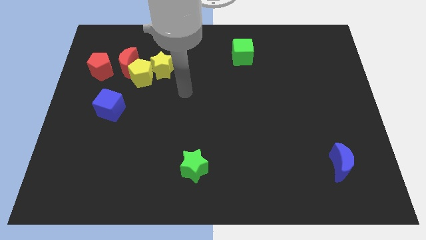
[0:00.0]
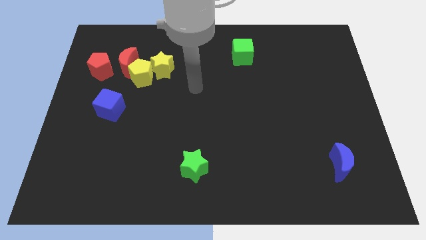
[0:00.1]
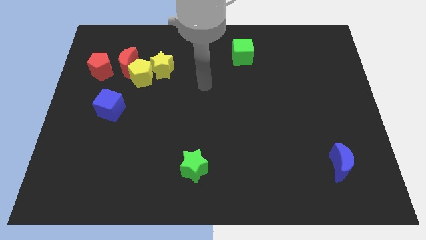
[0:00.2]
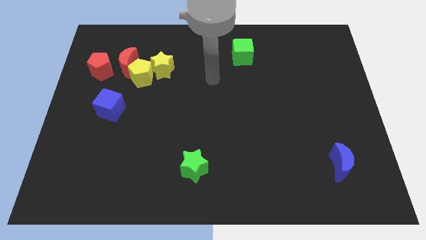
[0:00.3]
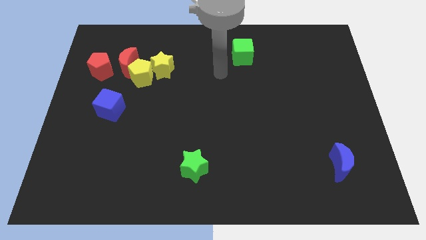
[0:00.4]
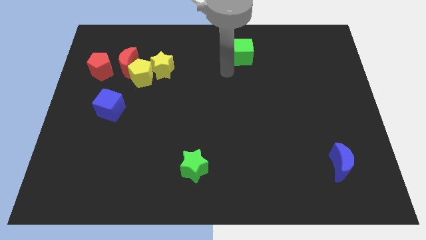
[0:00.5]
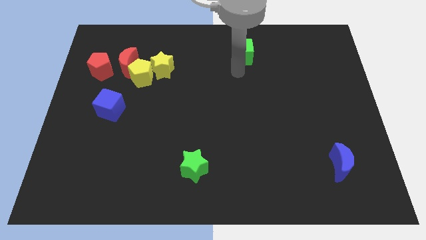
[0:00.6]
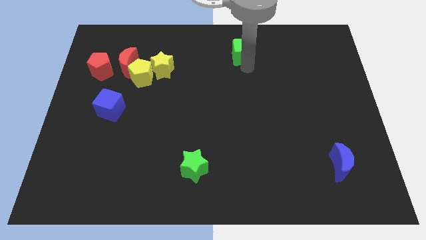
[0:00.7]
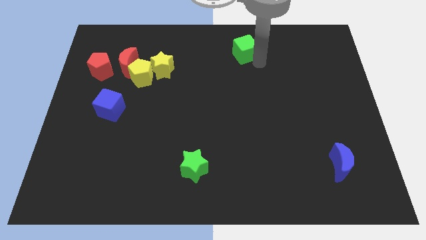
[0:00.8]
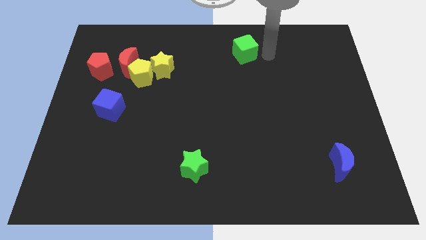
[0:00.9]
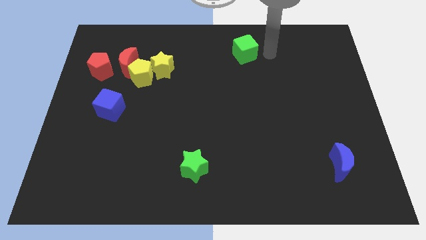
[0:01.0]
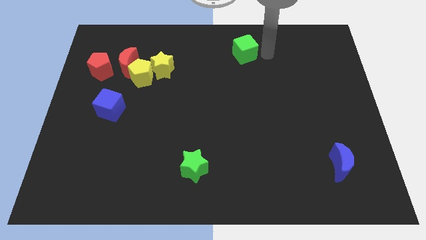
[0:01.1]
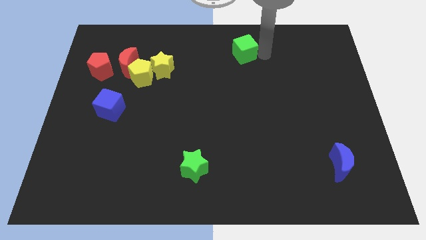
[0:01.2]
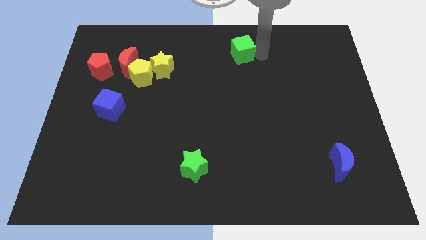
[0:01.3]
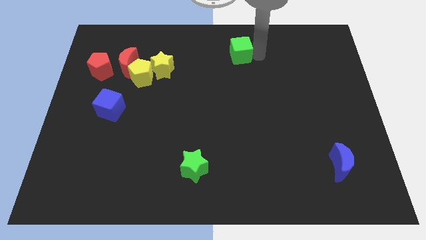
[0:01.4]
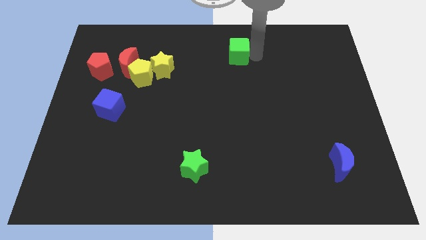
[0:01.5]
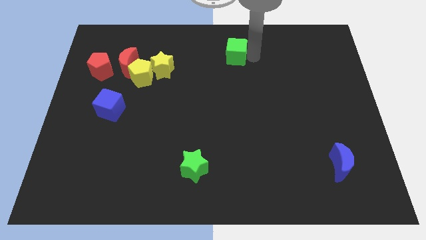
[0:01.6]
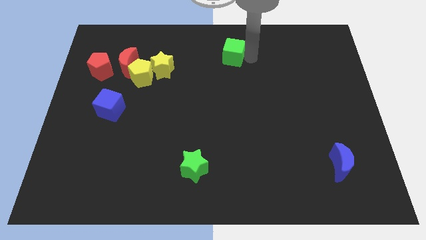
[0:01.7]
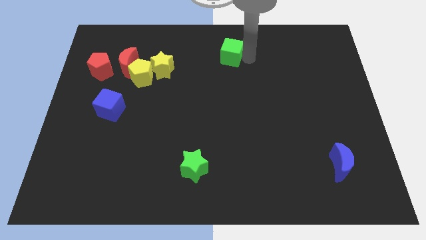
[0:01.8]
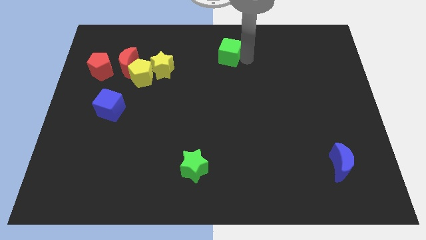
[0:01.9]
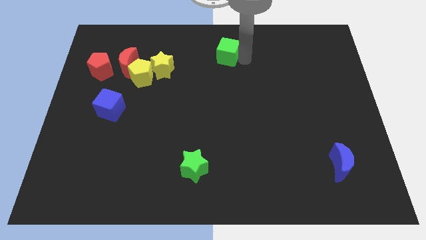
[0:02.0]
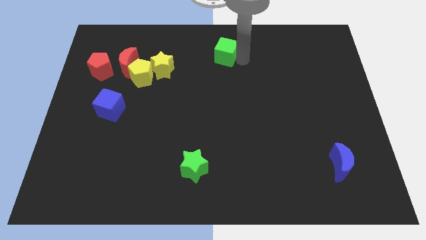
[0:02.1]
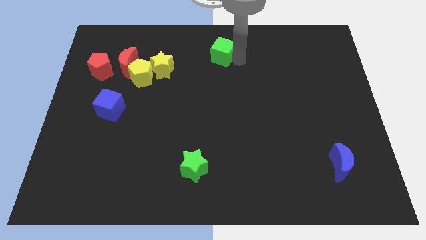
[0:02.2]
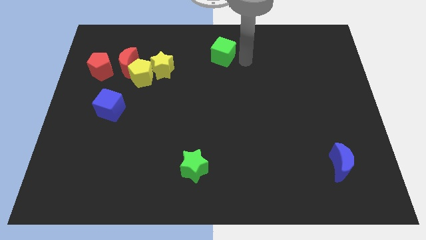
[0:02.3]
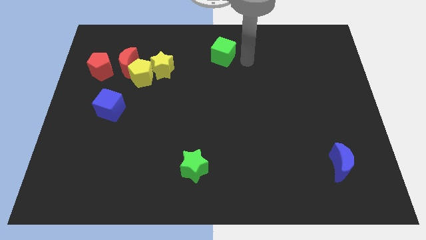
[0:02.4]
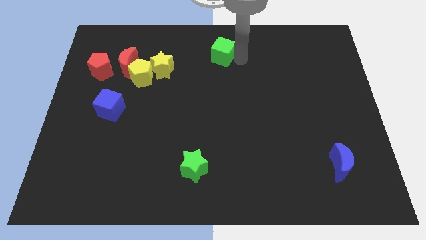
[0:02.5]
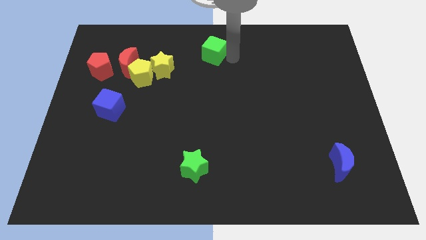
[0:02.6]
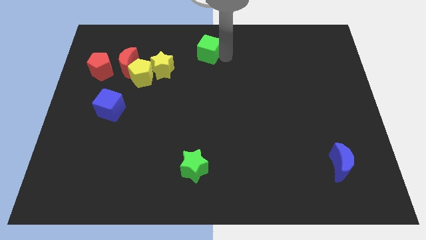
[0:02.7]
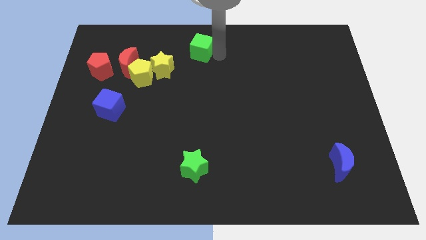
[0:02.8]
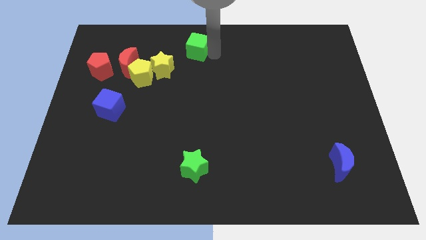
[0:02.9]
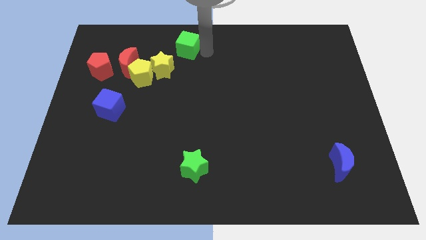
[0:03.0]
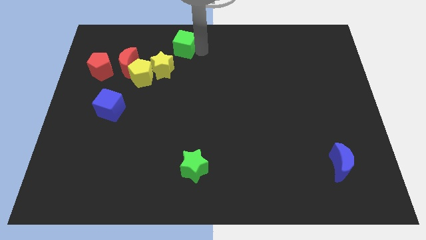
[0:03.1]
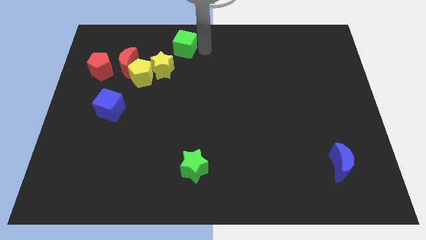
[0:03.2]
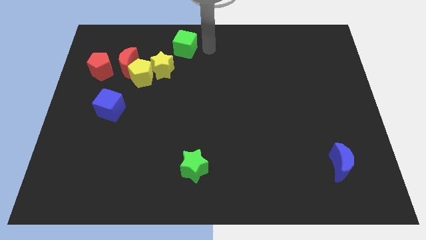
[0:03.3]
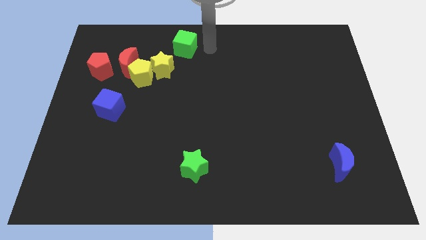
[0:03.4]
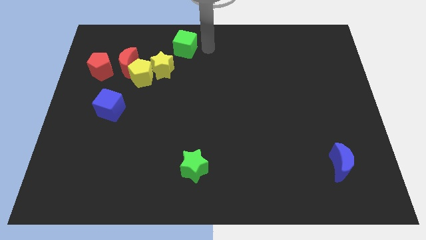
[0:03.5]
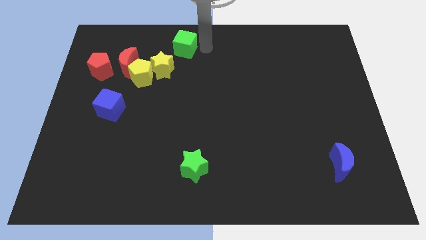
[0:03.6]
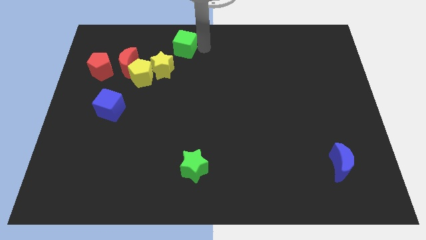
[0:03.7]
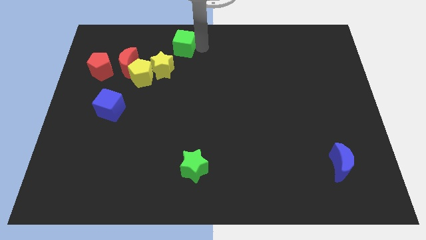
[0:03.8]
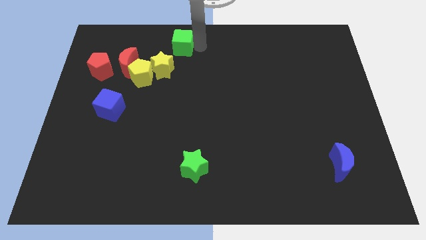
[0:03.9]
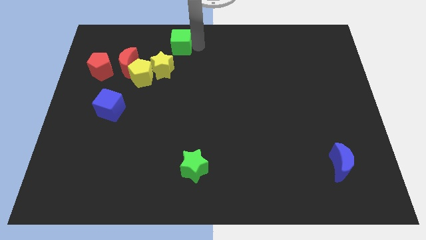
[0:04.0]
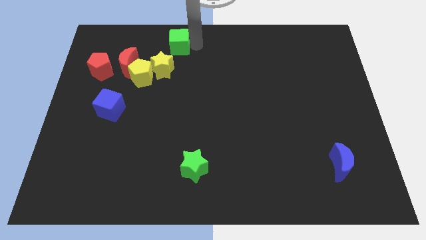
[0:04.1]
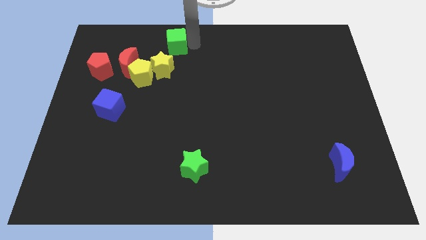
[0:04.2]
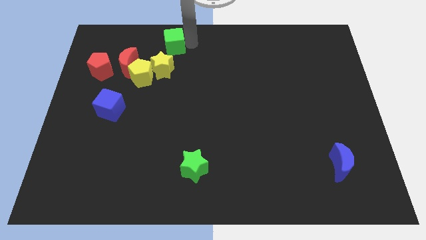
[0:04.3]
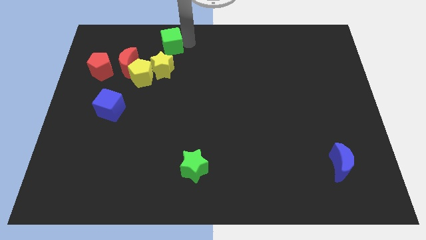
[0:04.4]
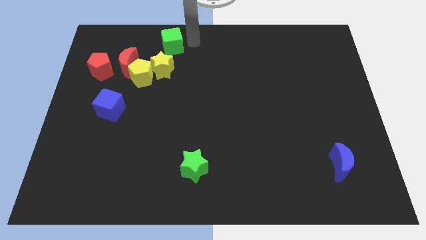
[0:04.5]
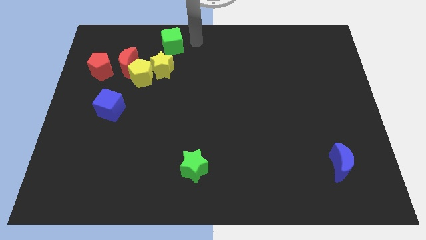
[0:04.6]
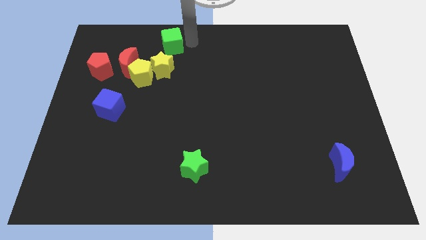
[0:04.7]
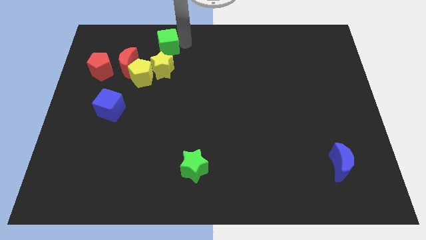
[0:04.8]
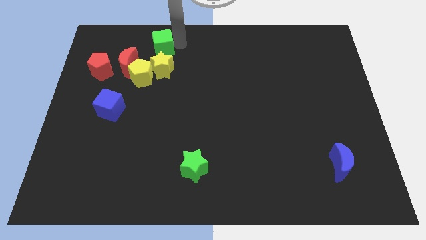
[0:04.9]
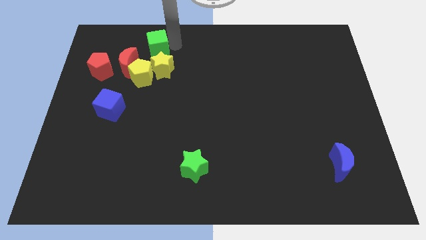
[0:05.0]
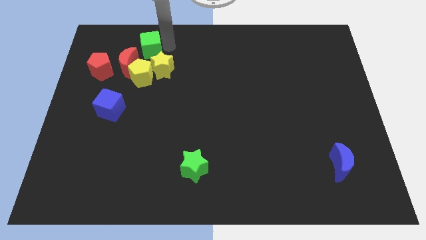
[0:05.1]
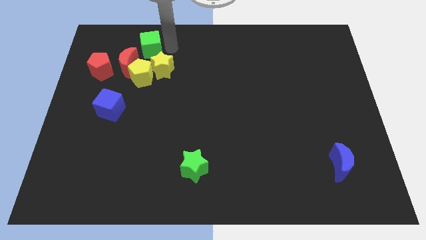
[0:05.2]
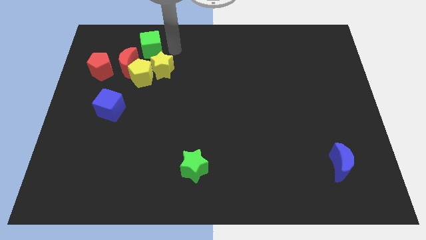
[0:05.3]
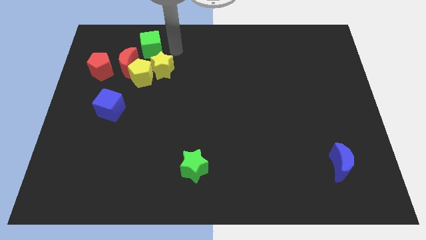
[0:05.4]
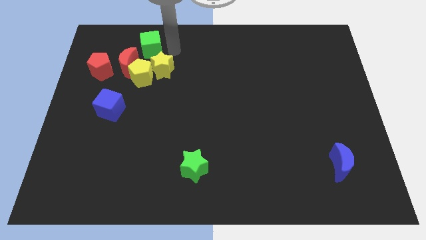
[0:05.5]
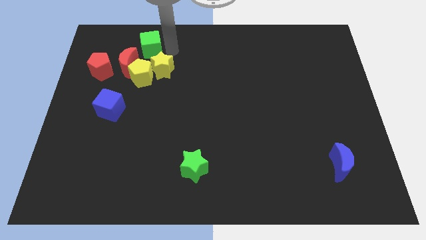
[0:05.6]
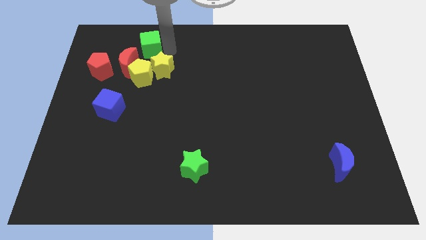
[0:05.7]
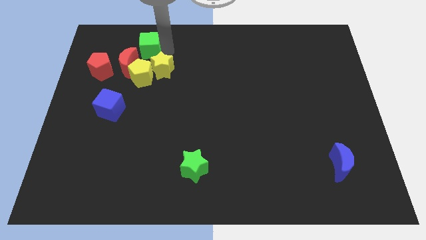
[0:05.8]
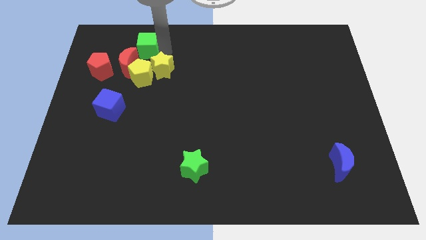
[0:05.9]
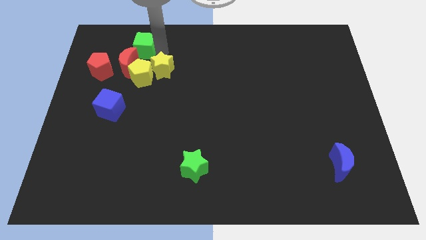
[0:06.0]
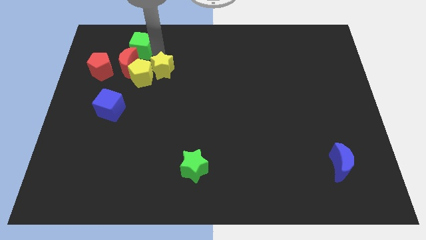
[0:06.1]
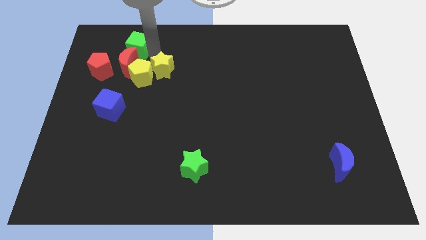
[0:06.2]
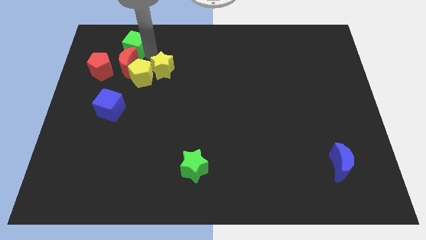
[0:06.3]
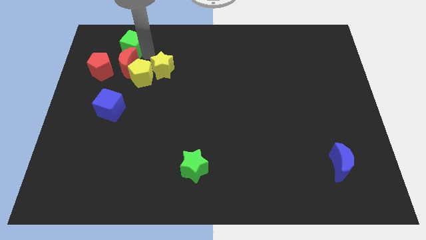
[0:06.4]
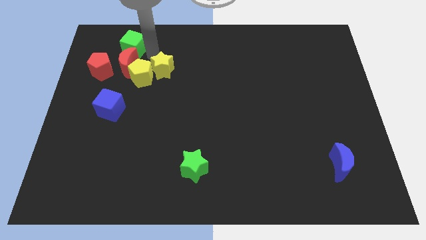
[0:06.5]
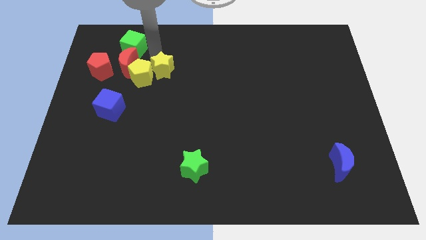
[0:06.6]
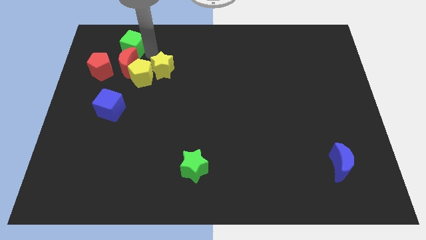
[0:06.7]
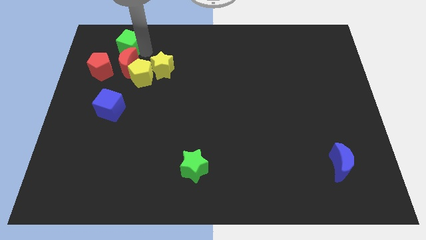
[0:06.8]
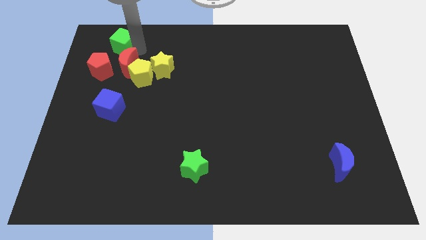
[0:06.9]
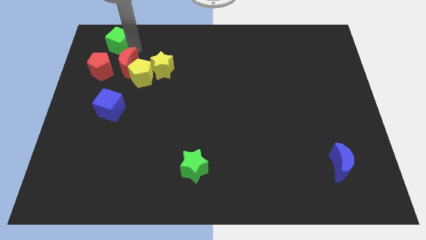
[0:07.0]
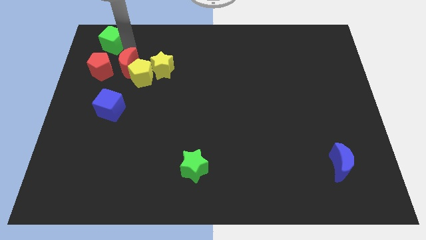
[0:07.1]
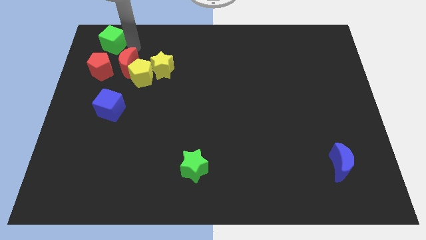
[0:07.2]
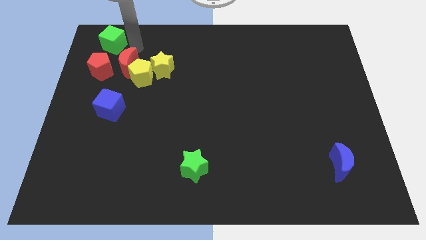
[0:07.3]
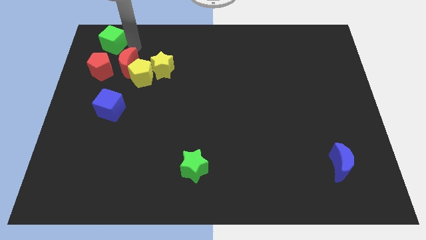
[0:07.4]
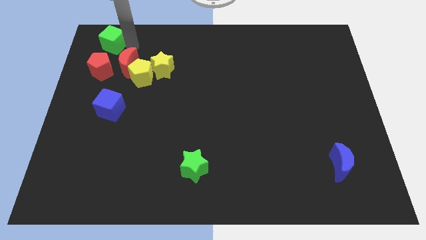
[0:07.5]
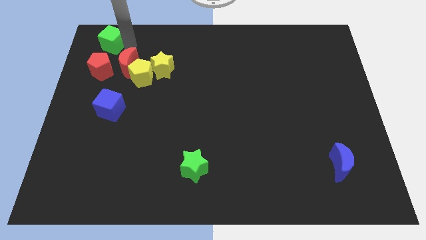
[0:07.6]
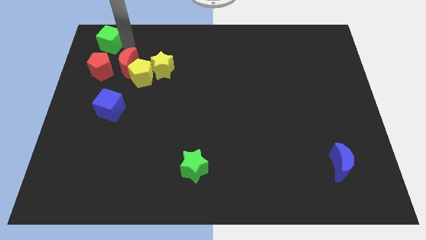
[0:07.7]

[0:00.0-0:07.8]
slide the green cube to the top left
